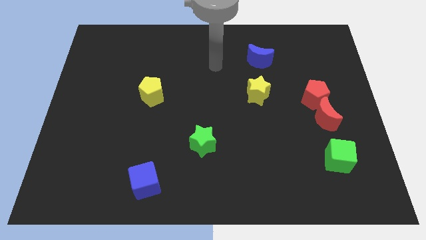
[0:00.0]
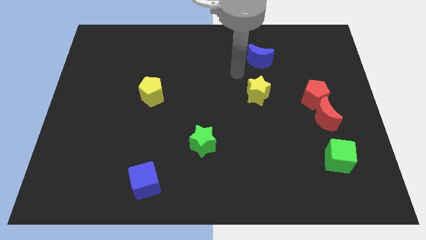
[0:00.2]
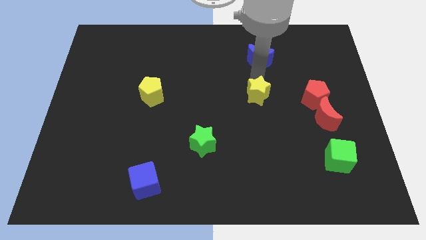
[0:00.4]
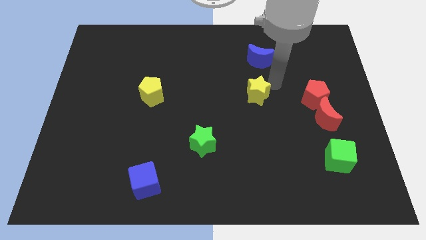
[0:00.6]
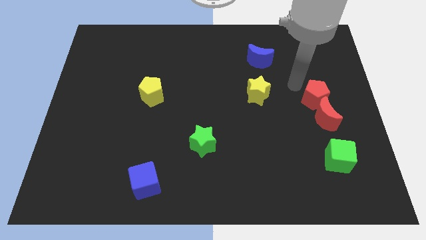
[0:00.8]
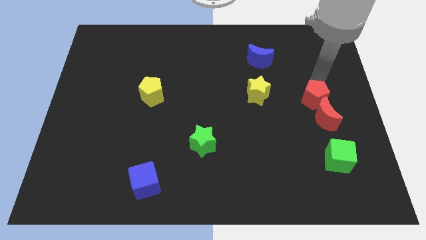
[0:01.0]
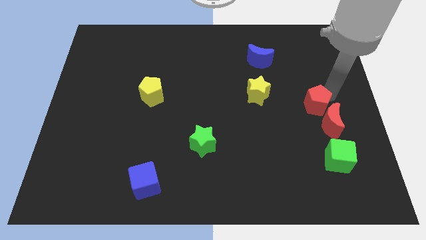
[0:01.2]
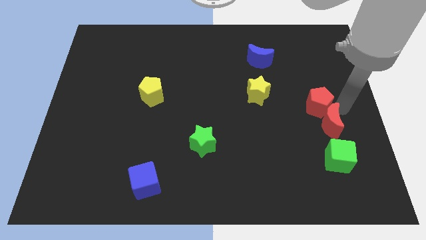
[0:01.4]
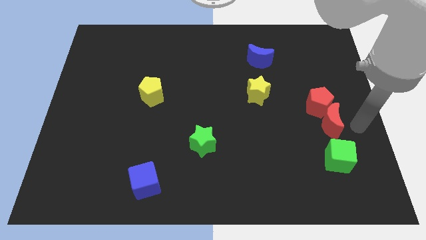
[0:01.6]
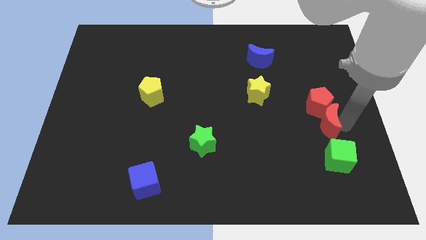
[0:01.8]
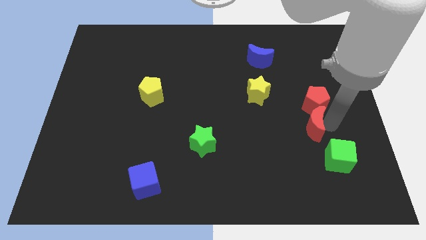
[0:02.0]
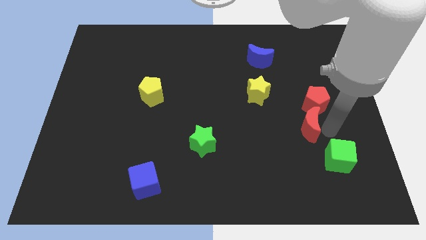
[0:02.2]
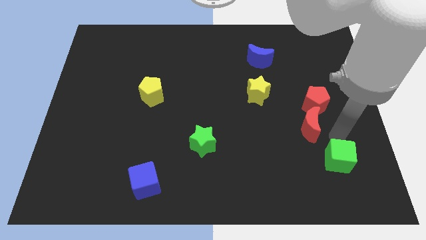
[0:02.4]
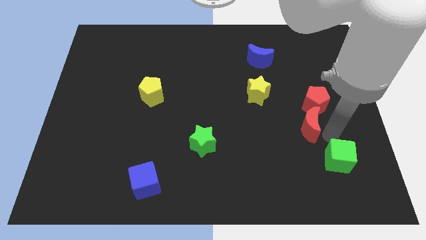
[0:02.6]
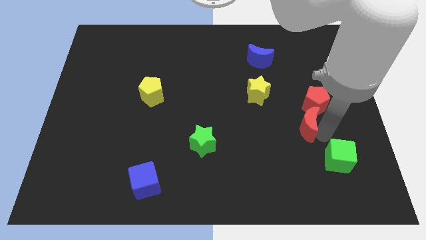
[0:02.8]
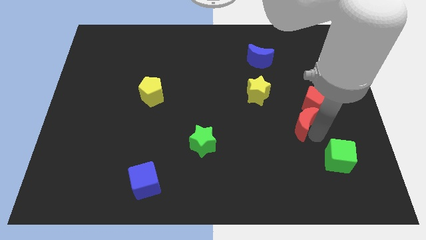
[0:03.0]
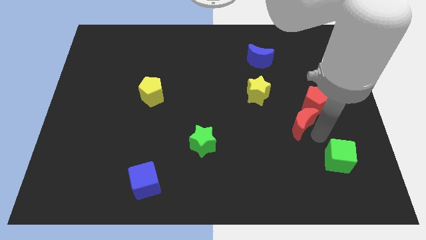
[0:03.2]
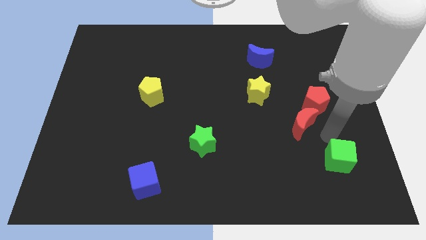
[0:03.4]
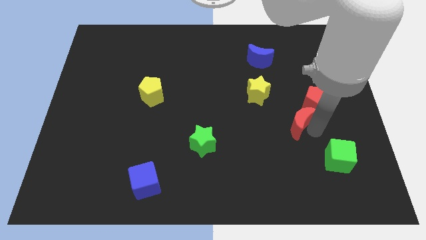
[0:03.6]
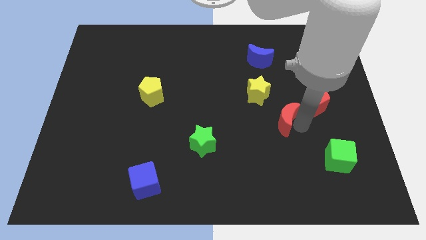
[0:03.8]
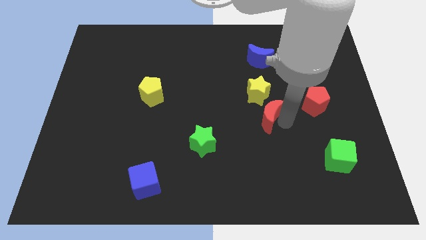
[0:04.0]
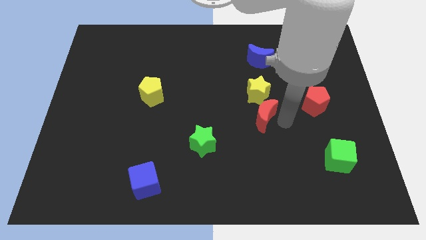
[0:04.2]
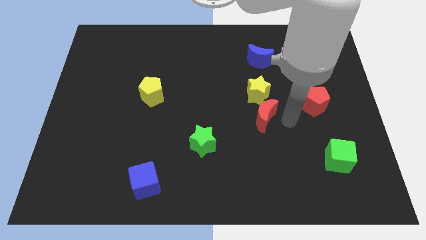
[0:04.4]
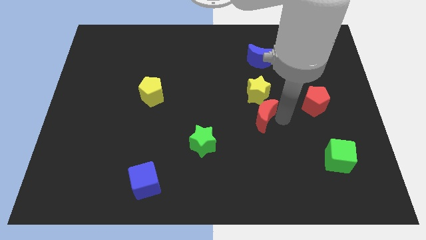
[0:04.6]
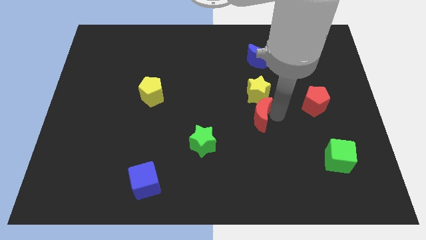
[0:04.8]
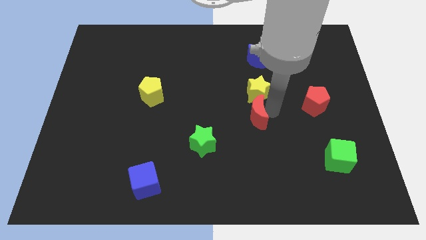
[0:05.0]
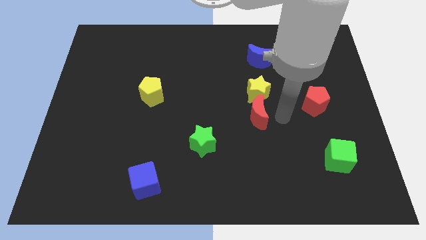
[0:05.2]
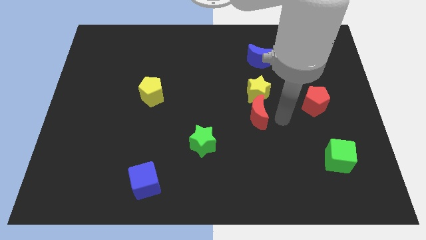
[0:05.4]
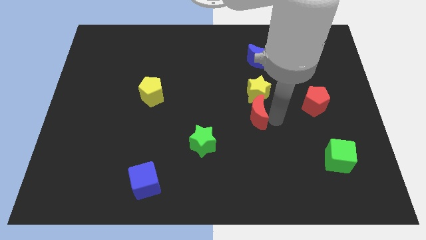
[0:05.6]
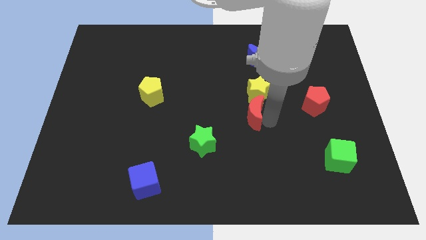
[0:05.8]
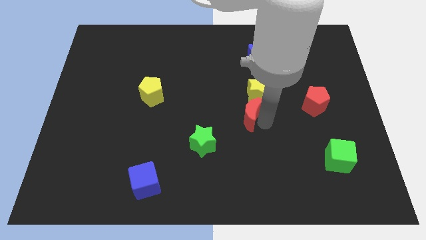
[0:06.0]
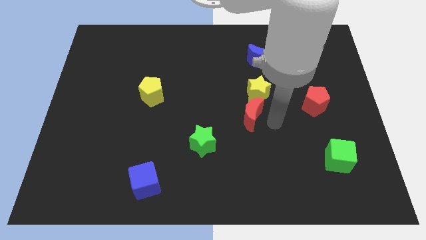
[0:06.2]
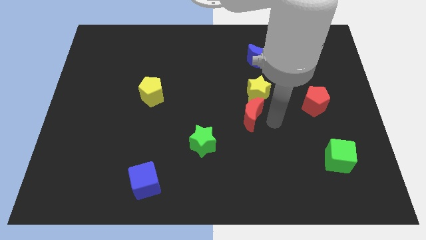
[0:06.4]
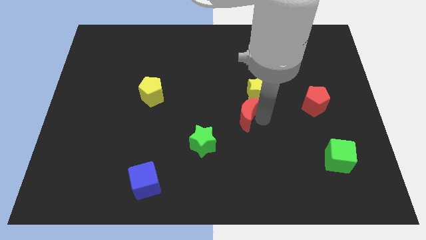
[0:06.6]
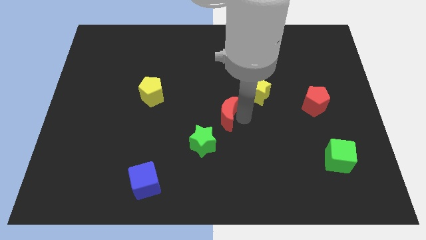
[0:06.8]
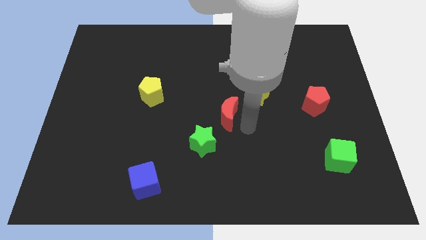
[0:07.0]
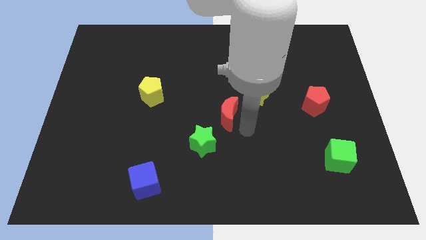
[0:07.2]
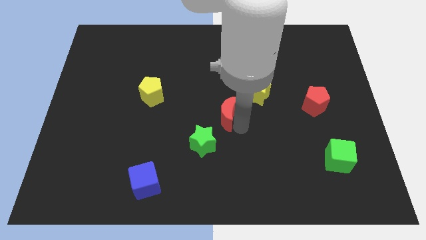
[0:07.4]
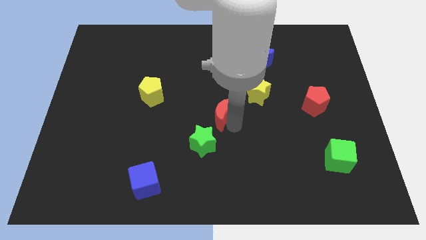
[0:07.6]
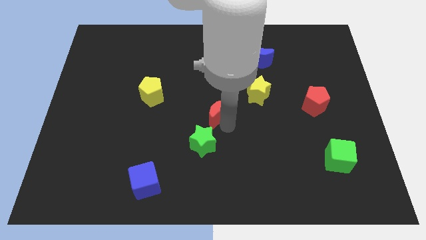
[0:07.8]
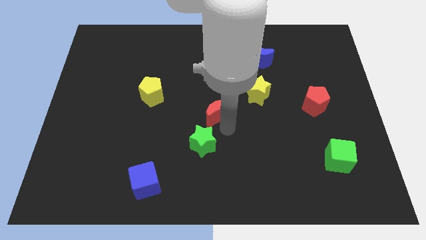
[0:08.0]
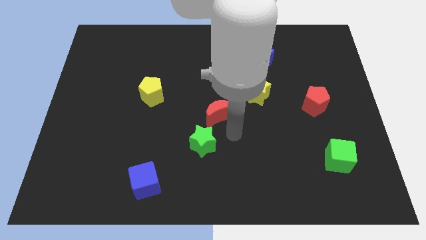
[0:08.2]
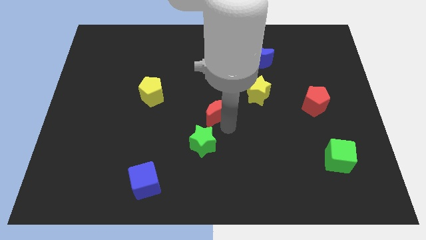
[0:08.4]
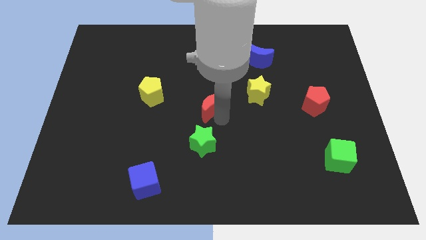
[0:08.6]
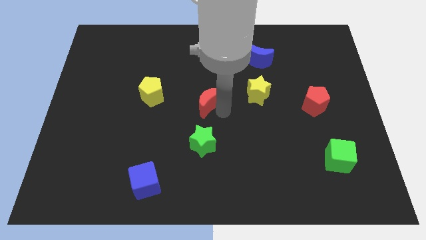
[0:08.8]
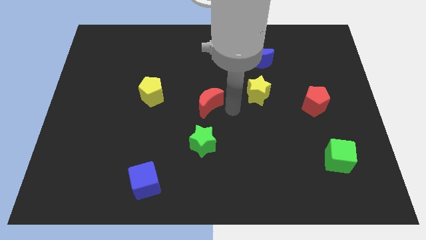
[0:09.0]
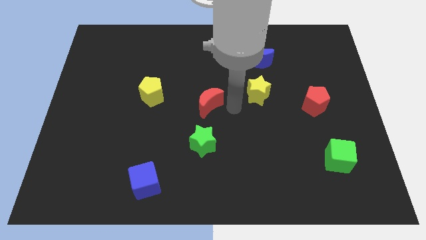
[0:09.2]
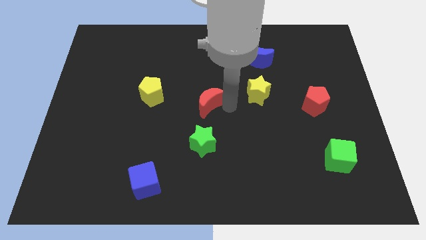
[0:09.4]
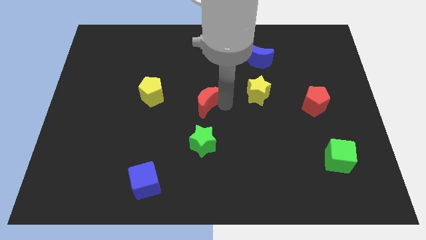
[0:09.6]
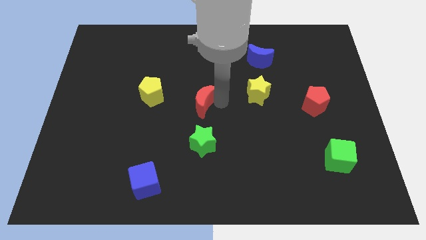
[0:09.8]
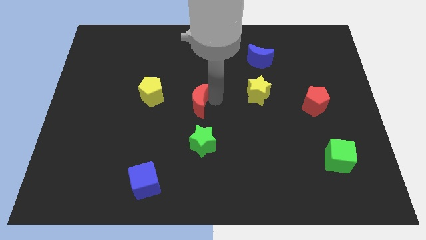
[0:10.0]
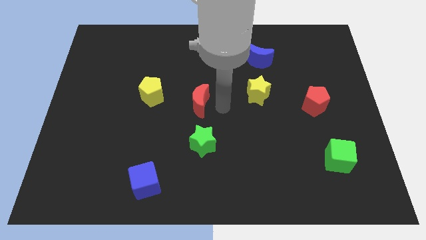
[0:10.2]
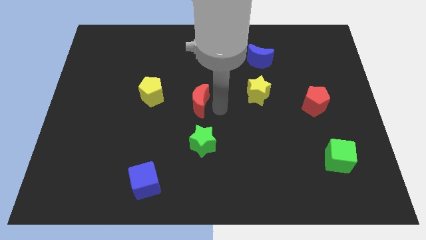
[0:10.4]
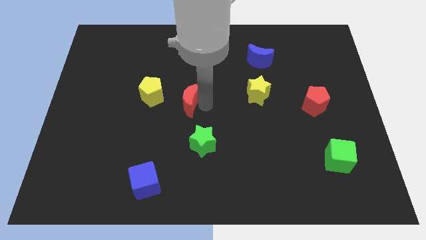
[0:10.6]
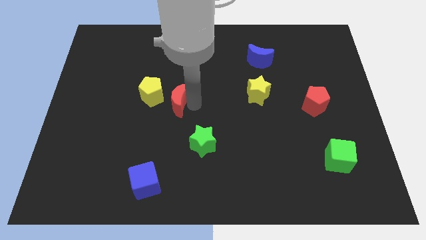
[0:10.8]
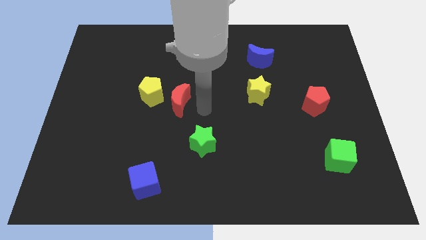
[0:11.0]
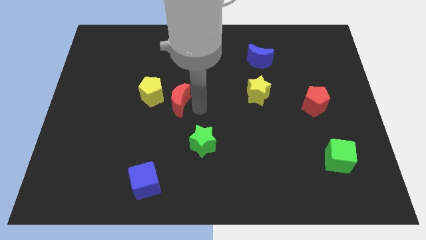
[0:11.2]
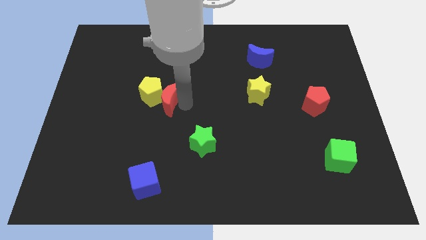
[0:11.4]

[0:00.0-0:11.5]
move the red moon towards the yellow pentagon
